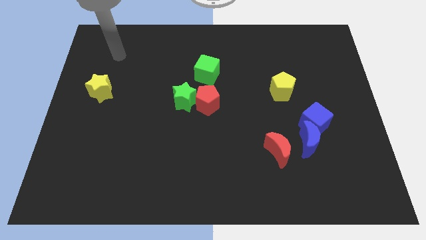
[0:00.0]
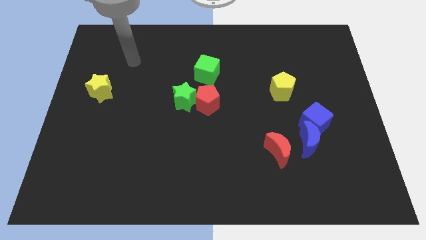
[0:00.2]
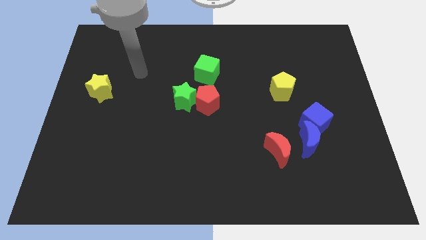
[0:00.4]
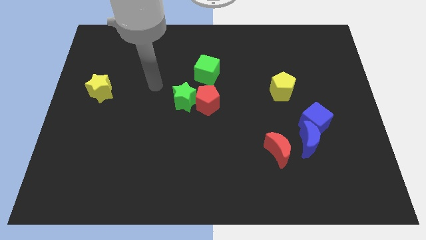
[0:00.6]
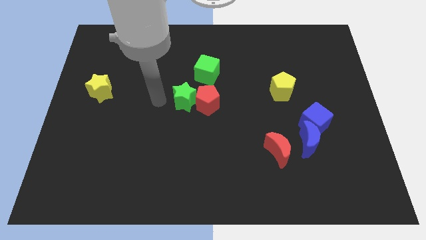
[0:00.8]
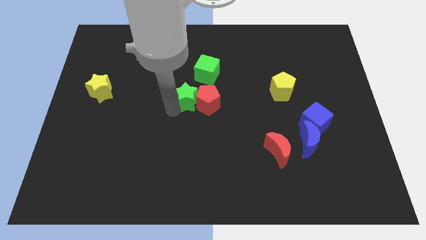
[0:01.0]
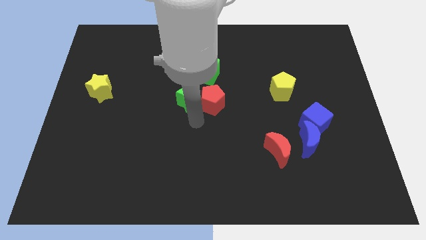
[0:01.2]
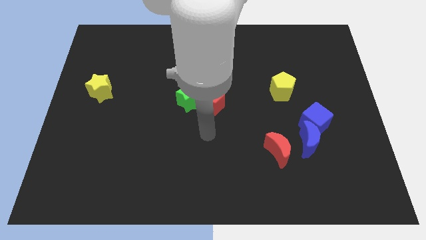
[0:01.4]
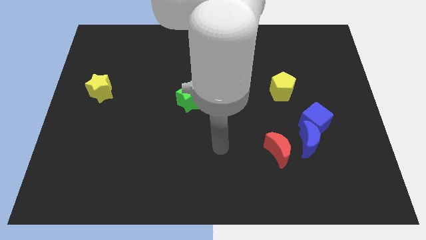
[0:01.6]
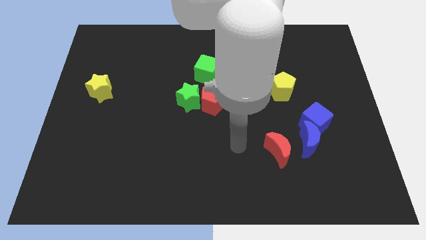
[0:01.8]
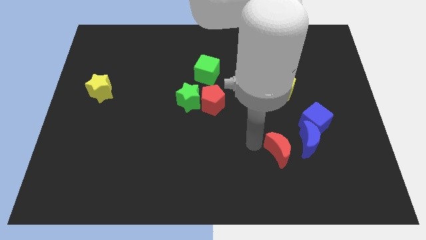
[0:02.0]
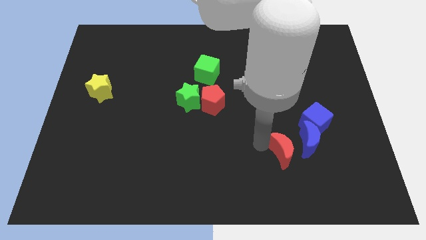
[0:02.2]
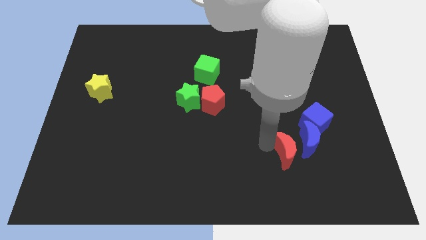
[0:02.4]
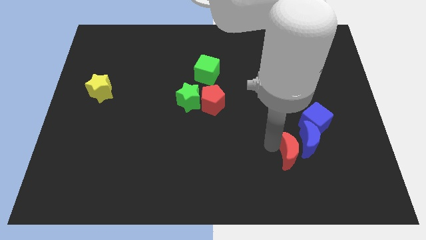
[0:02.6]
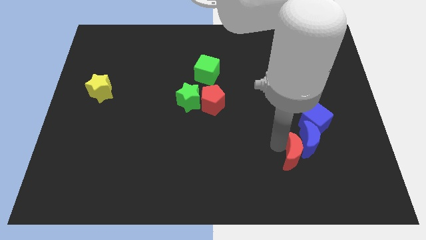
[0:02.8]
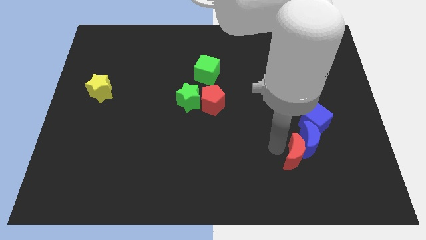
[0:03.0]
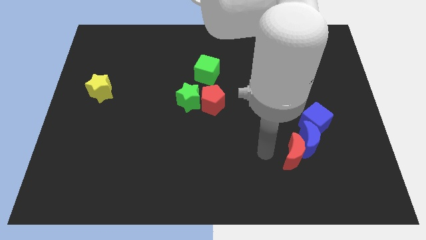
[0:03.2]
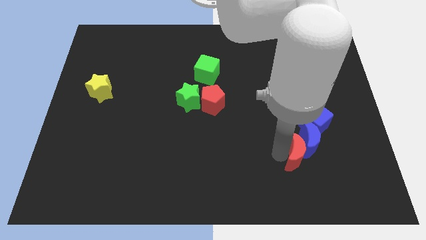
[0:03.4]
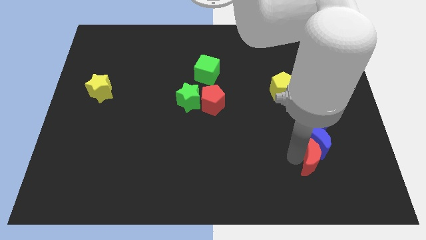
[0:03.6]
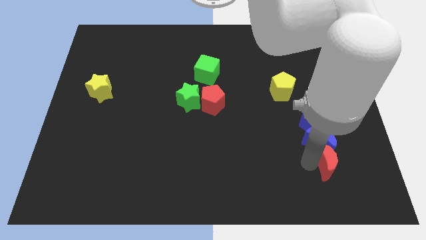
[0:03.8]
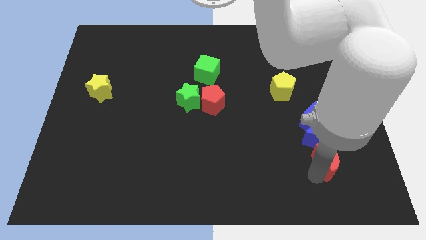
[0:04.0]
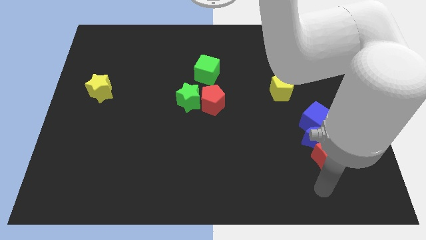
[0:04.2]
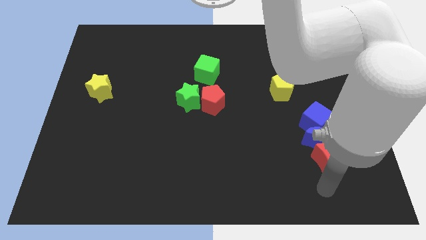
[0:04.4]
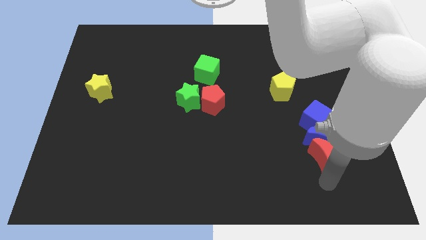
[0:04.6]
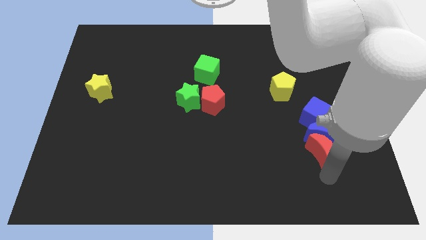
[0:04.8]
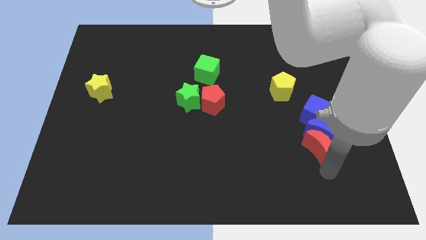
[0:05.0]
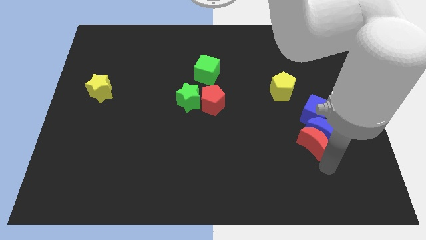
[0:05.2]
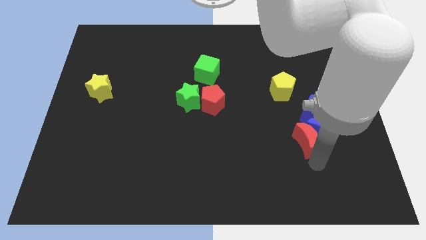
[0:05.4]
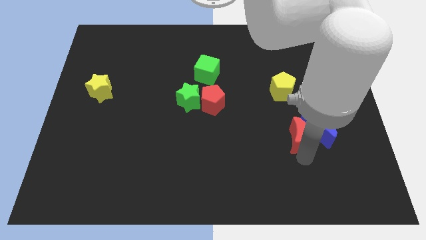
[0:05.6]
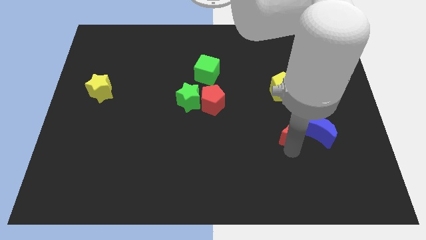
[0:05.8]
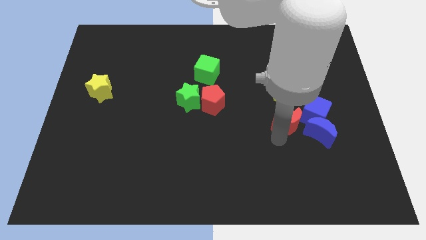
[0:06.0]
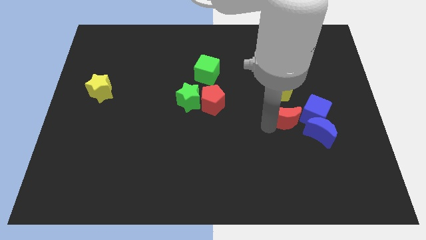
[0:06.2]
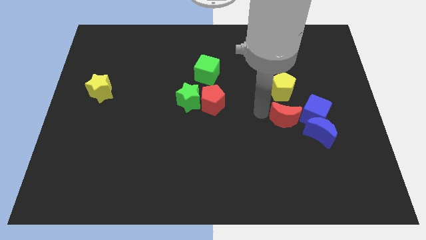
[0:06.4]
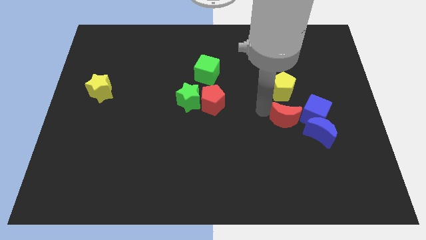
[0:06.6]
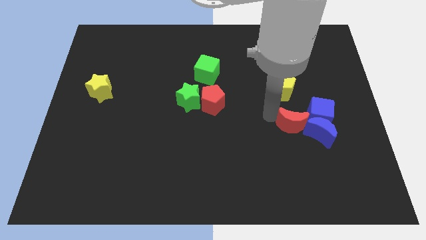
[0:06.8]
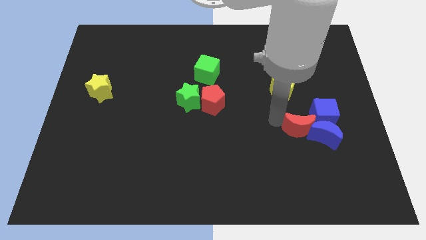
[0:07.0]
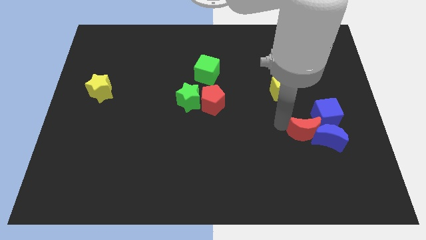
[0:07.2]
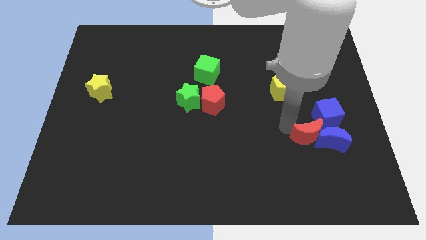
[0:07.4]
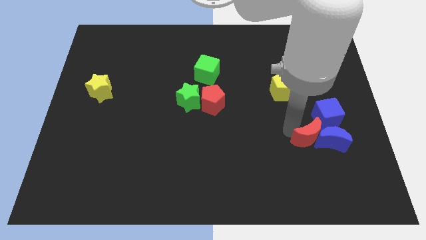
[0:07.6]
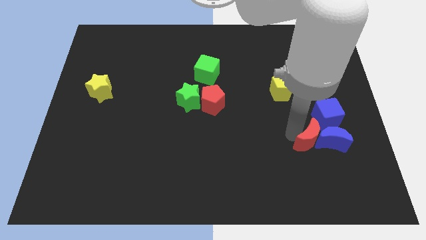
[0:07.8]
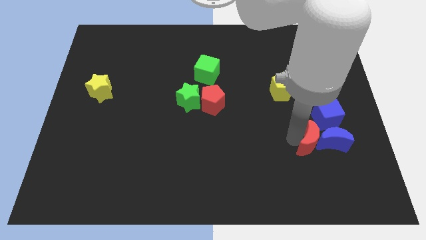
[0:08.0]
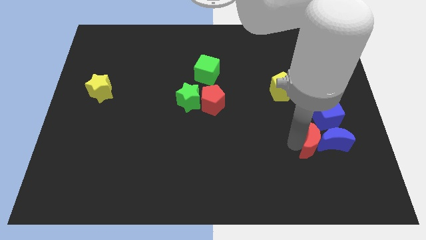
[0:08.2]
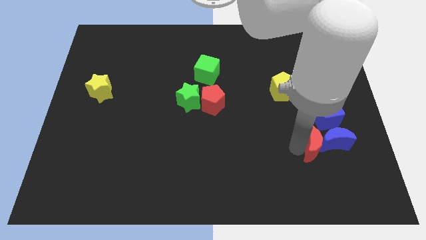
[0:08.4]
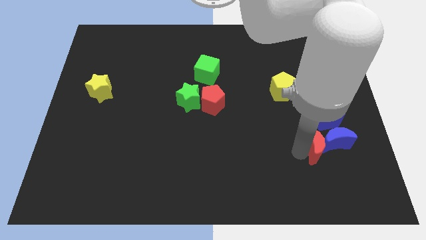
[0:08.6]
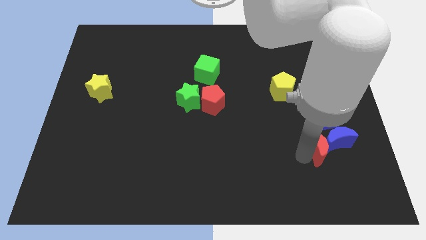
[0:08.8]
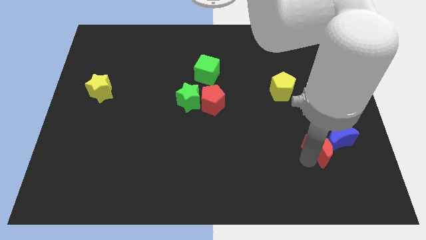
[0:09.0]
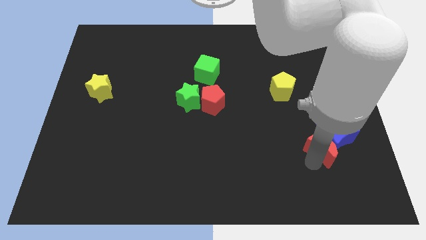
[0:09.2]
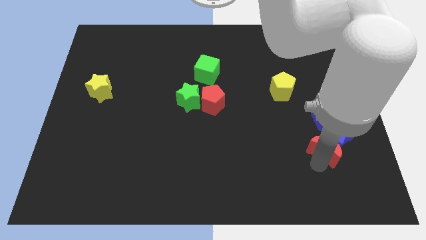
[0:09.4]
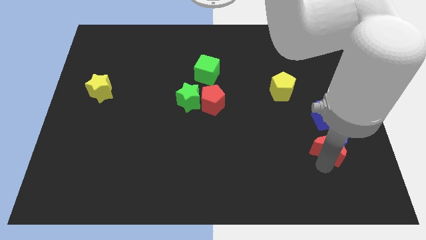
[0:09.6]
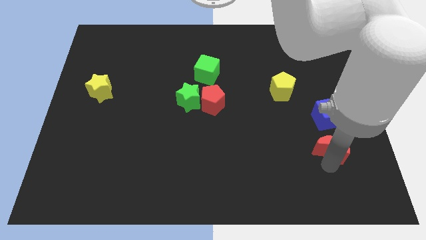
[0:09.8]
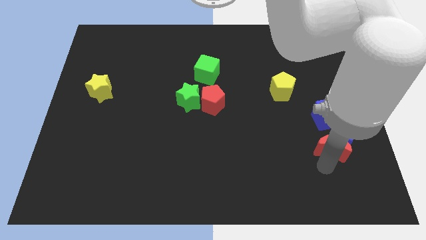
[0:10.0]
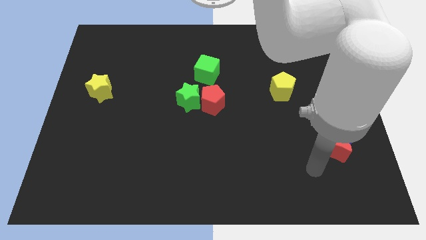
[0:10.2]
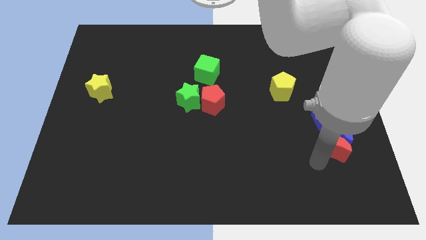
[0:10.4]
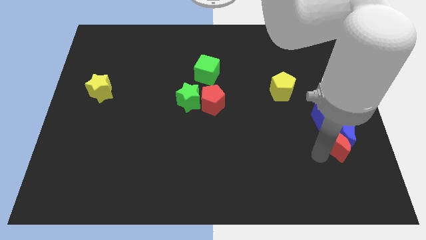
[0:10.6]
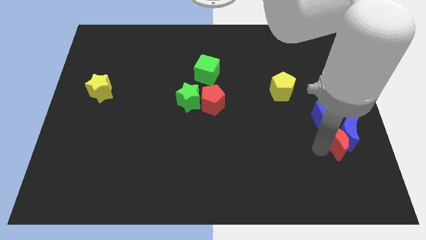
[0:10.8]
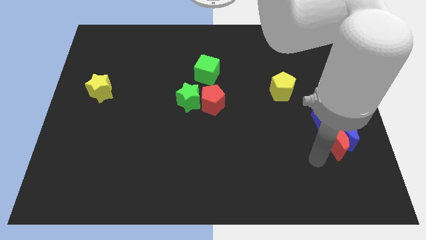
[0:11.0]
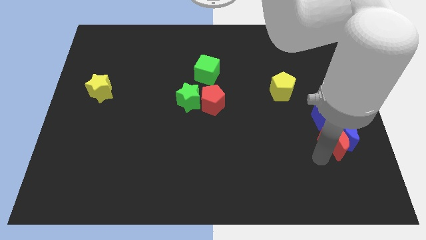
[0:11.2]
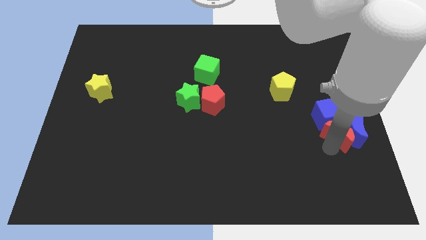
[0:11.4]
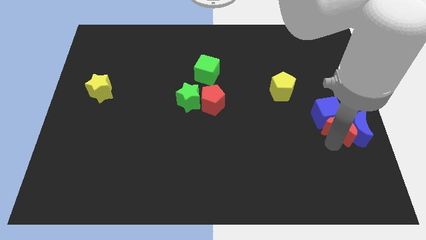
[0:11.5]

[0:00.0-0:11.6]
slide the red moon to the right side
